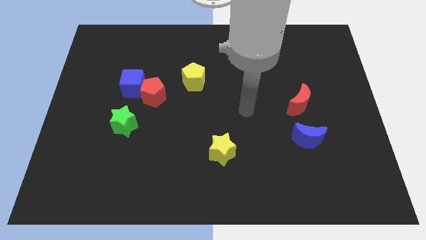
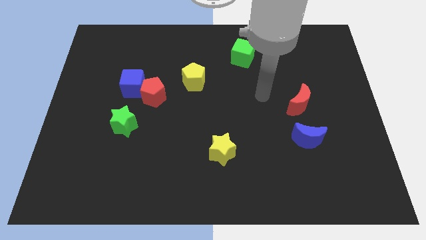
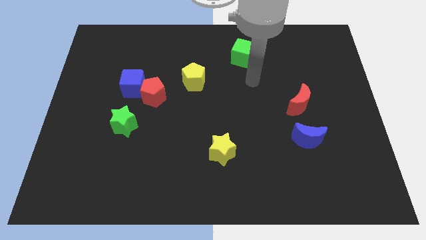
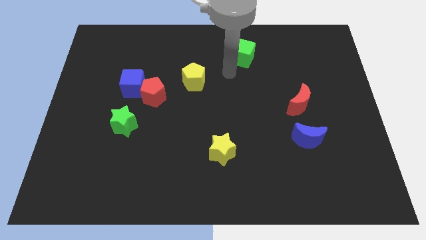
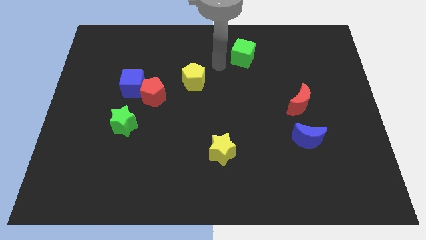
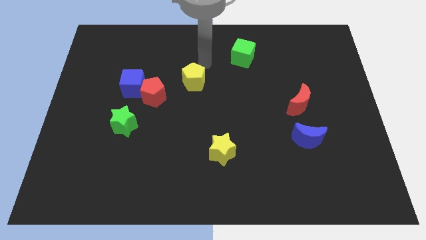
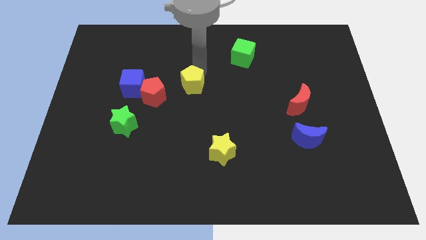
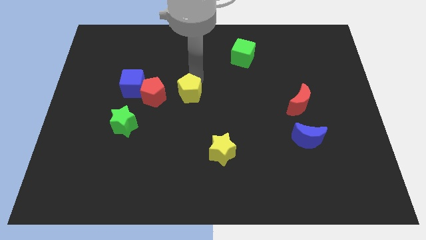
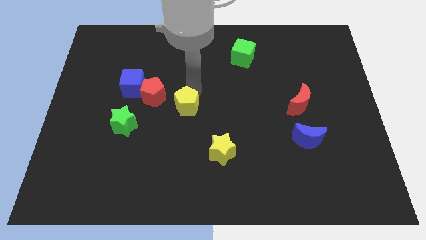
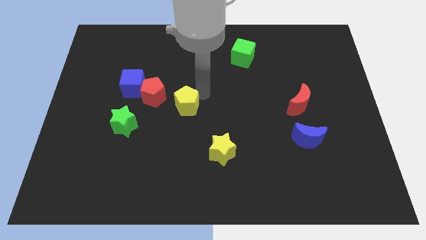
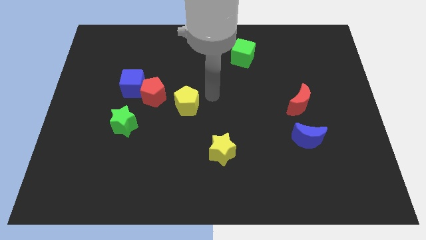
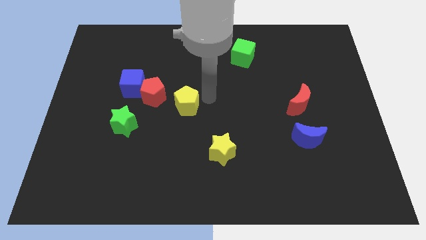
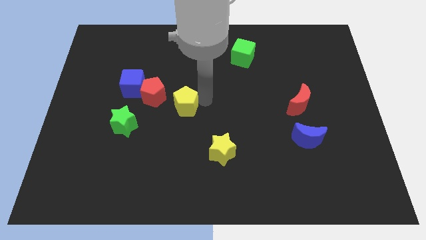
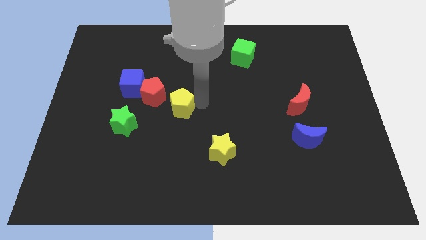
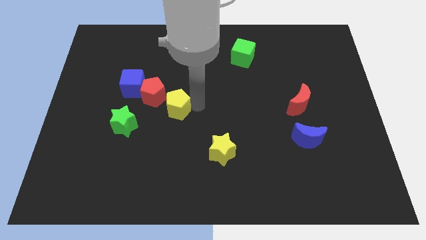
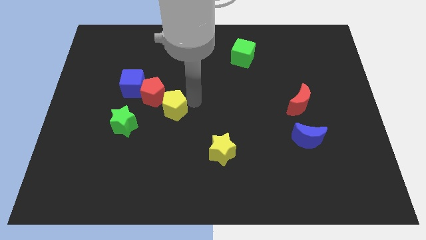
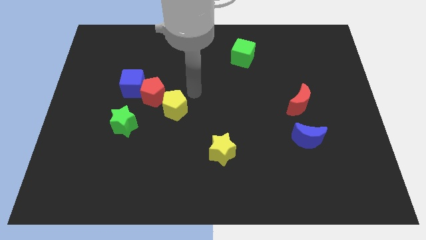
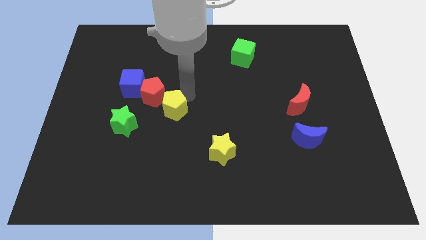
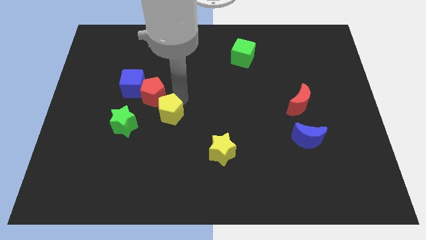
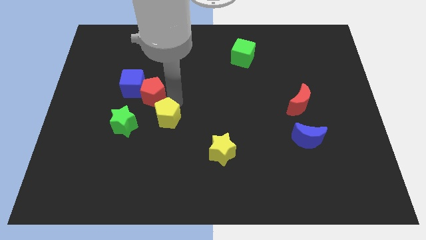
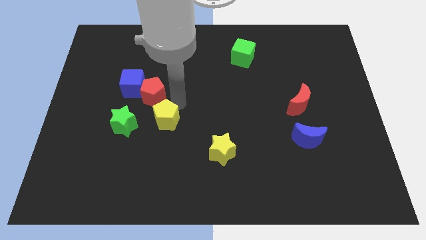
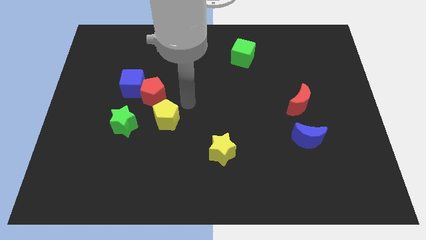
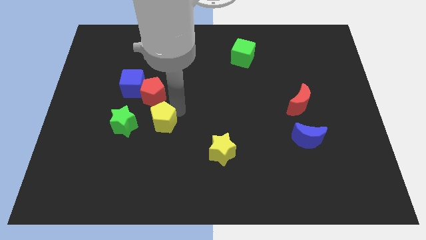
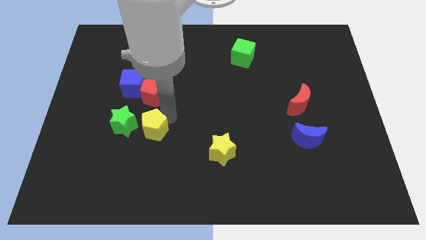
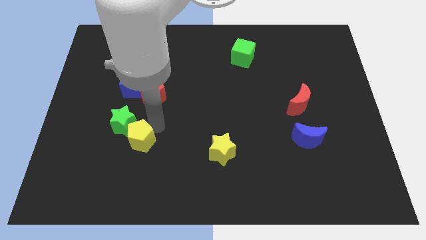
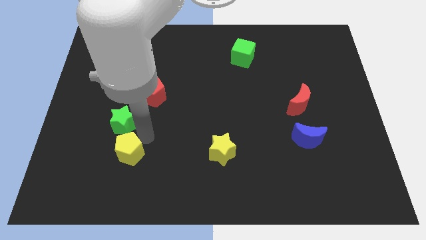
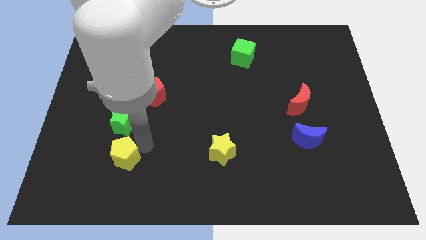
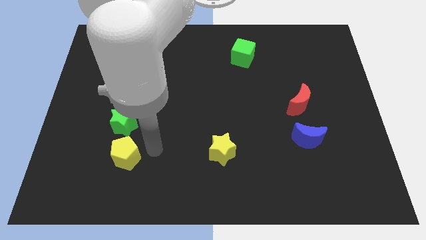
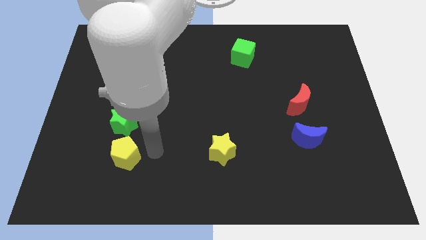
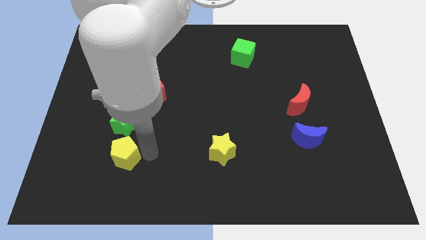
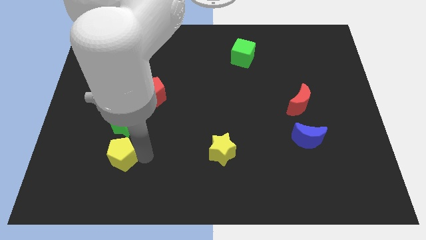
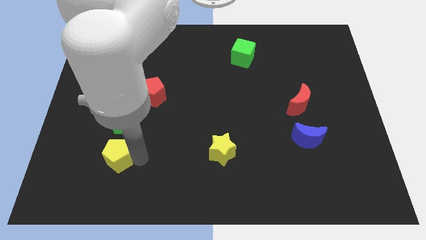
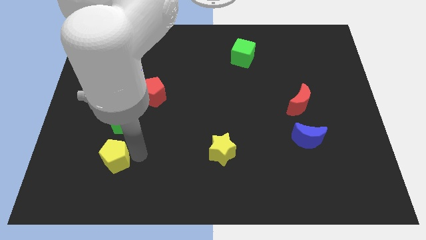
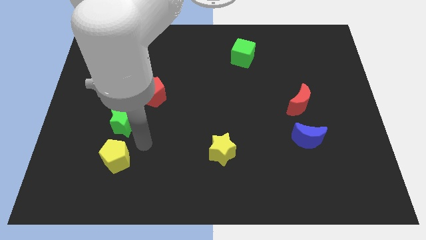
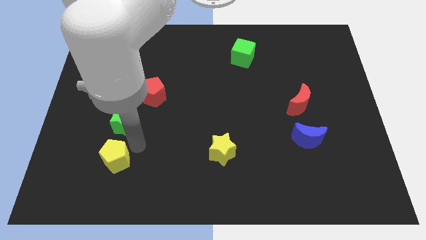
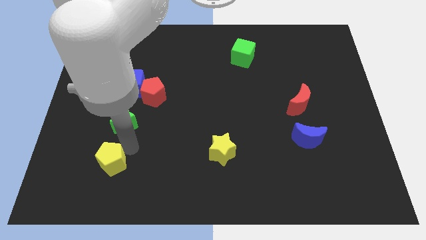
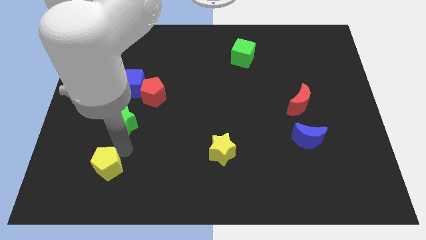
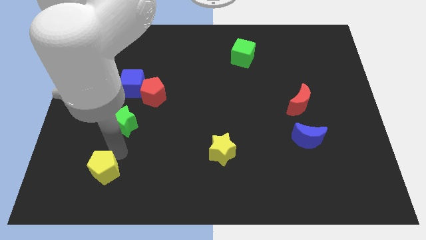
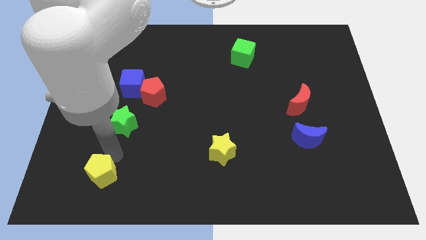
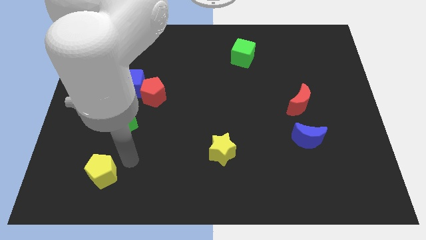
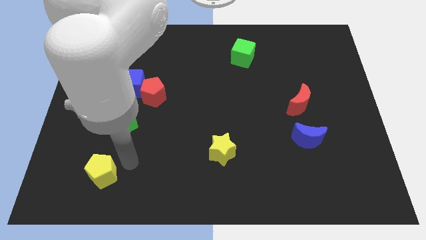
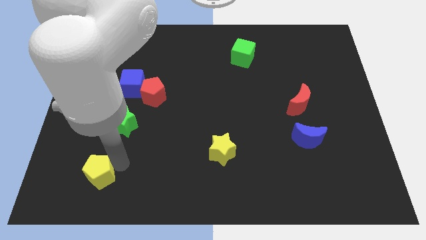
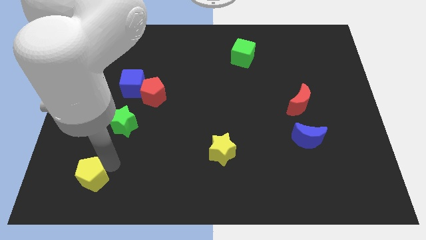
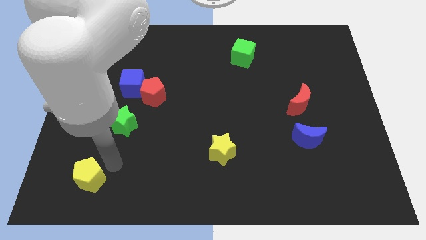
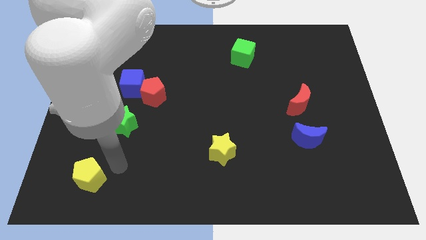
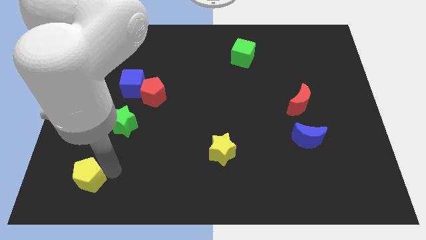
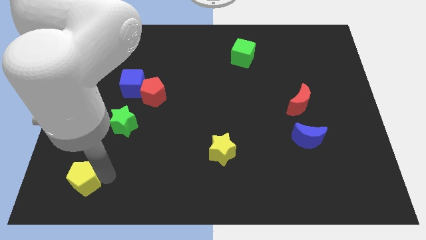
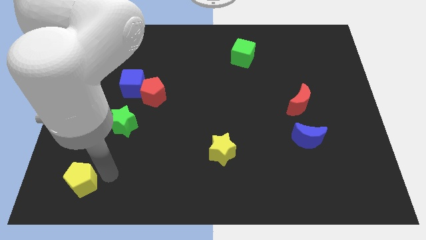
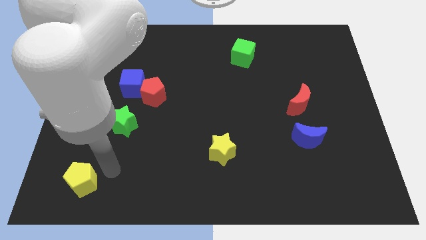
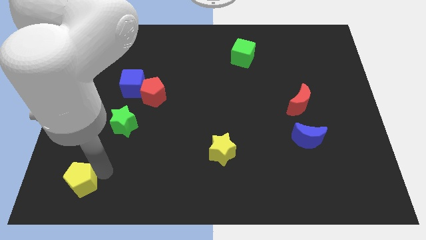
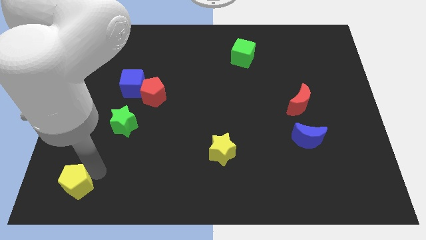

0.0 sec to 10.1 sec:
move the yellow pentagon to the bottom left of the board

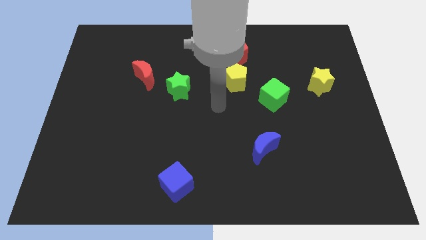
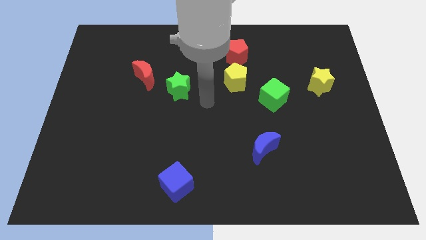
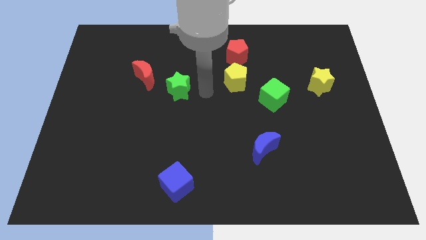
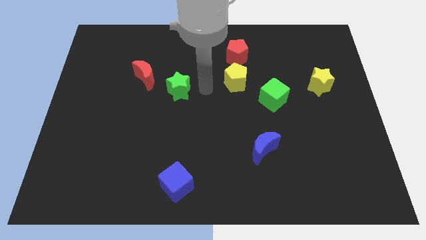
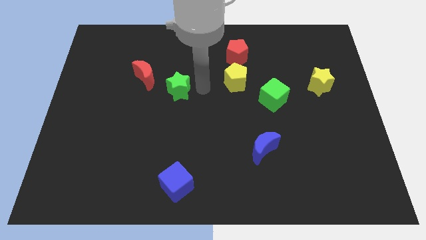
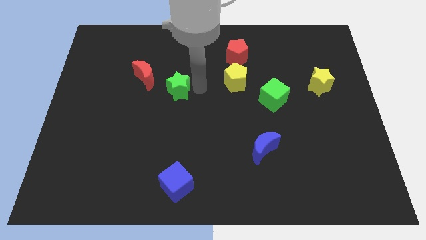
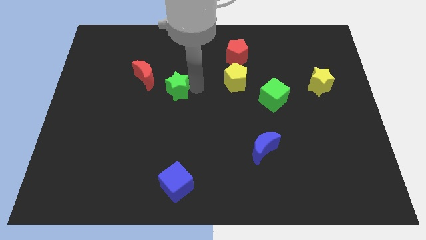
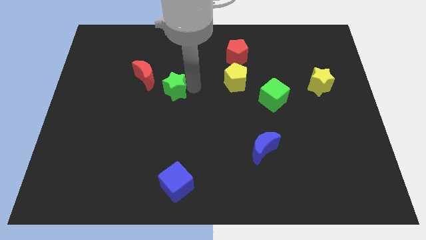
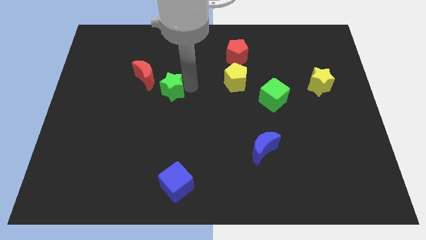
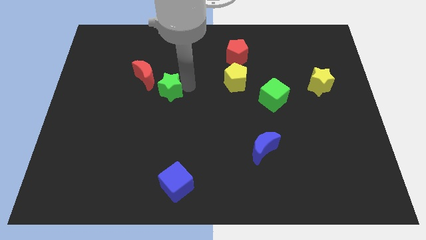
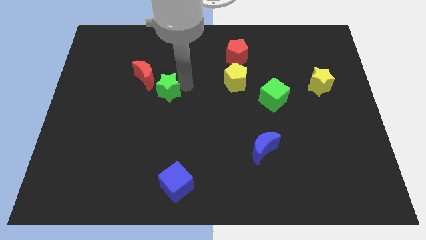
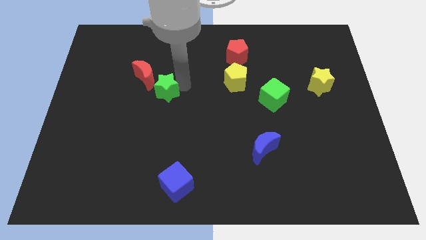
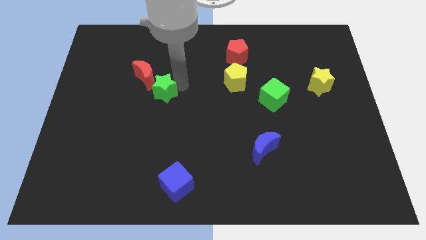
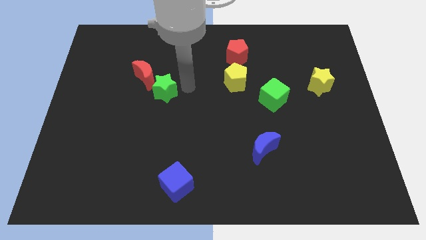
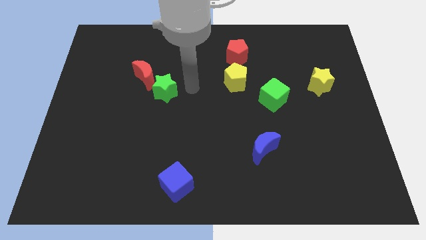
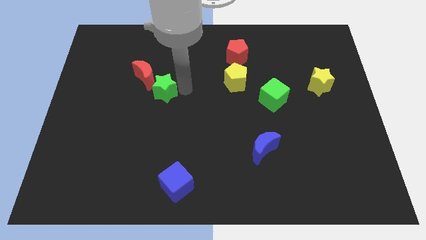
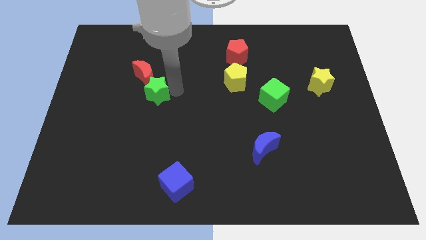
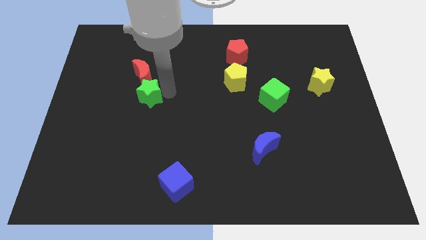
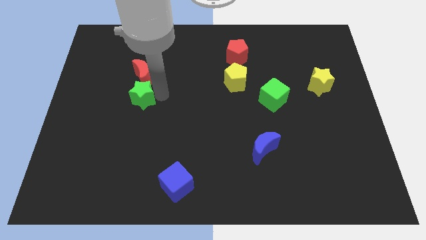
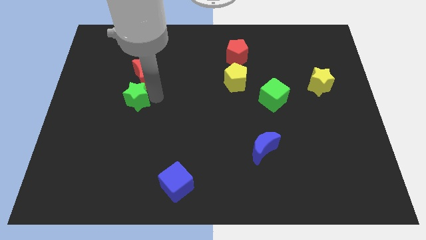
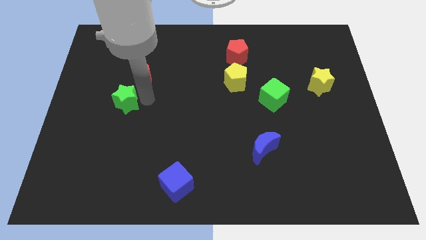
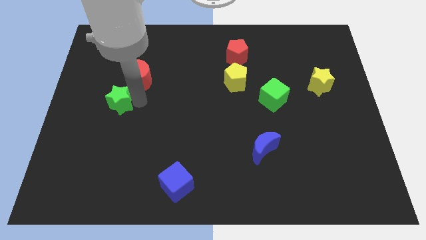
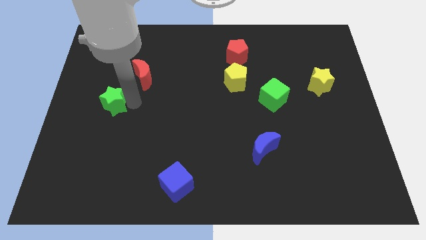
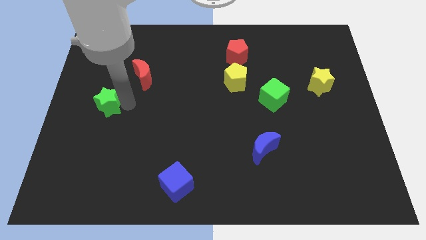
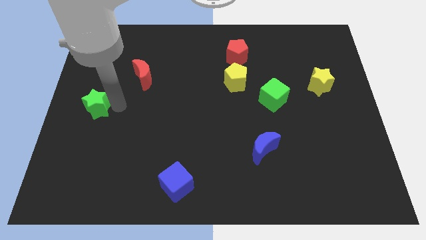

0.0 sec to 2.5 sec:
push the green star to the left side of the board

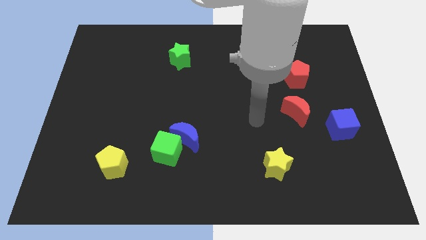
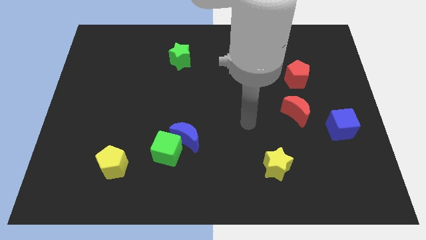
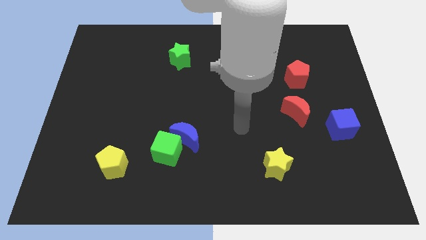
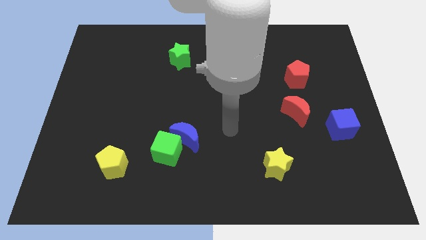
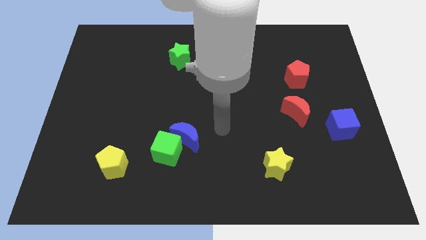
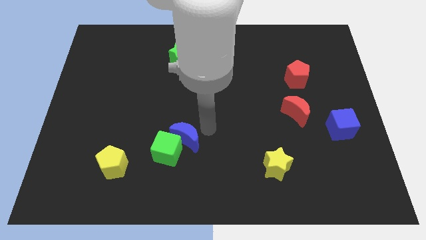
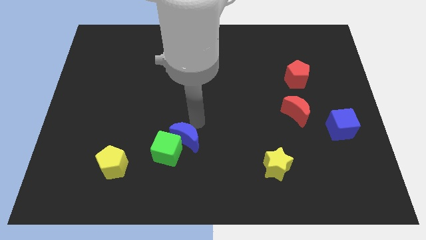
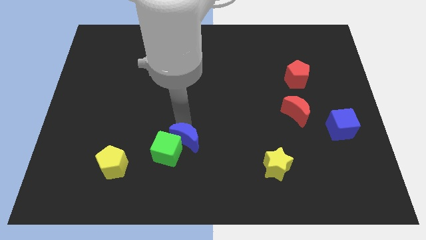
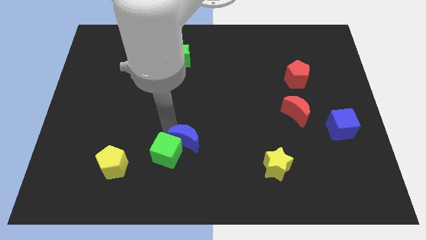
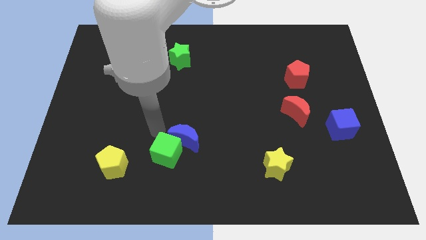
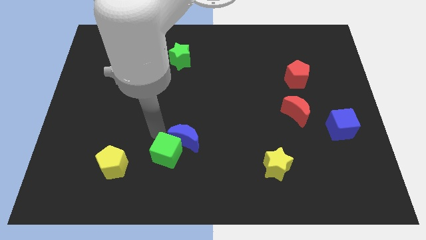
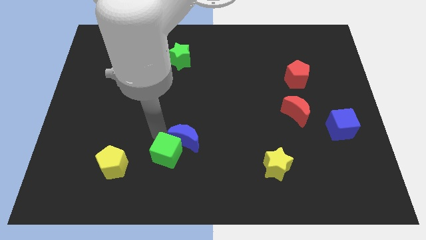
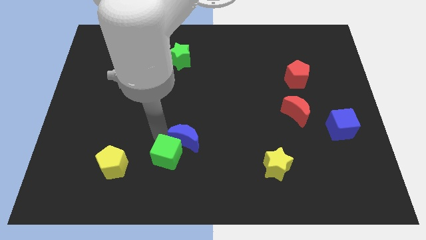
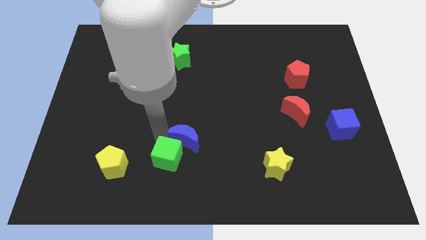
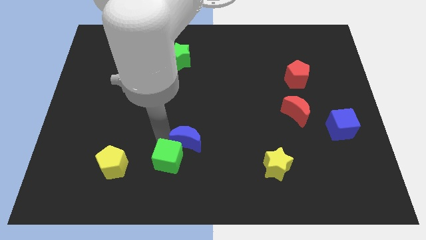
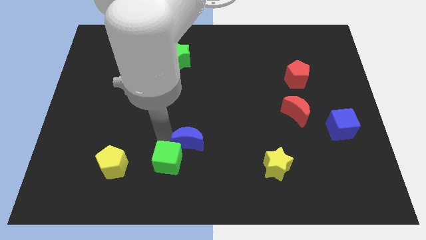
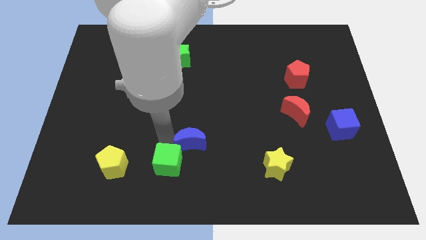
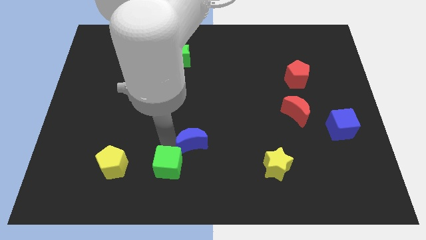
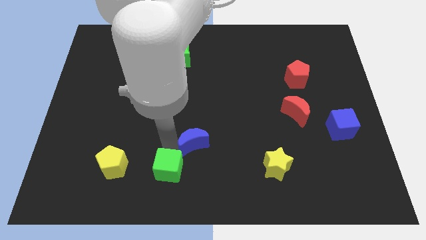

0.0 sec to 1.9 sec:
move the green cube to the bottom side
